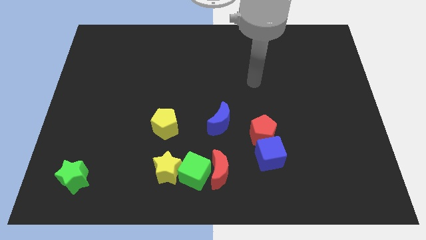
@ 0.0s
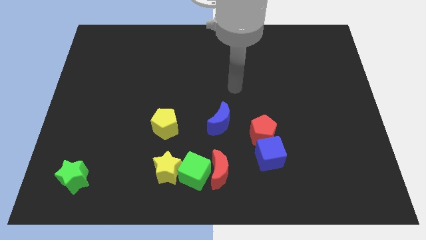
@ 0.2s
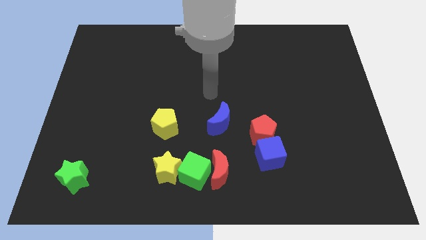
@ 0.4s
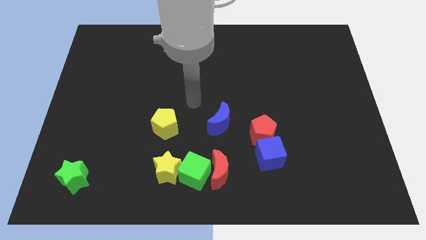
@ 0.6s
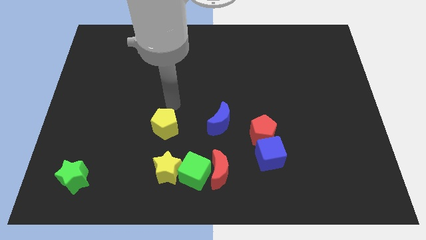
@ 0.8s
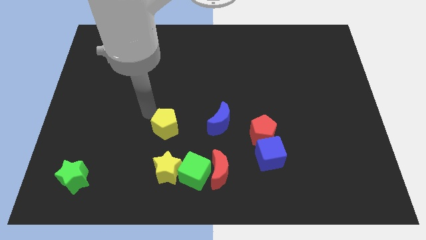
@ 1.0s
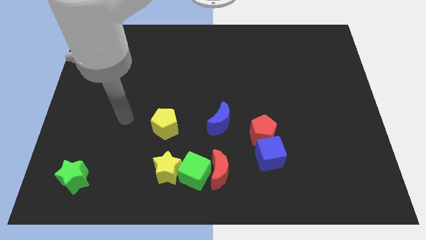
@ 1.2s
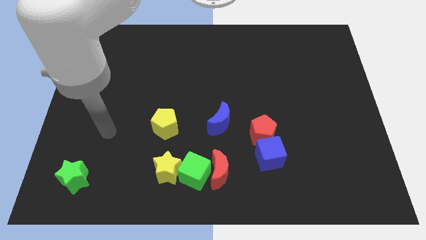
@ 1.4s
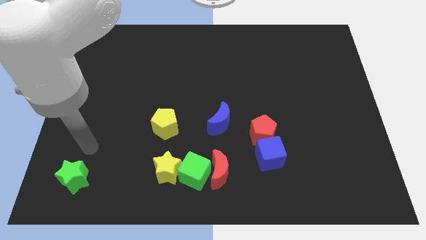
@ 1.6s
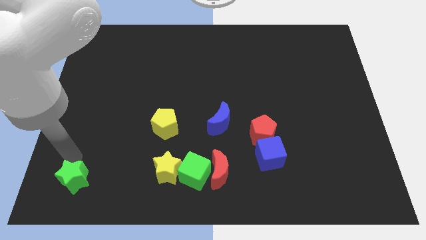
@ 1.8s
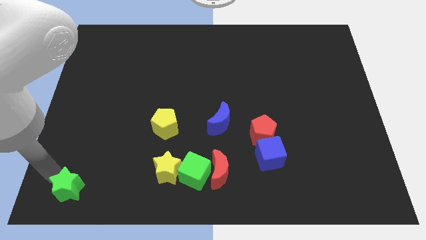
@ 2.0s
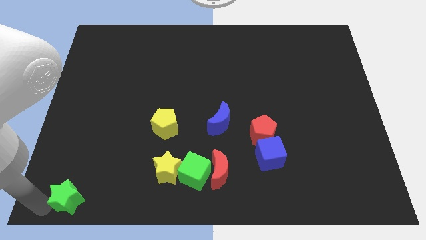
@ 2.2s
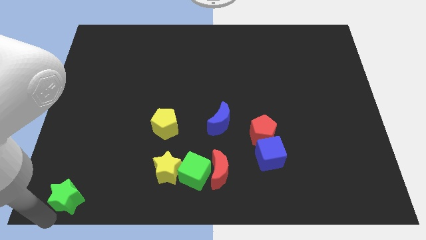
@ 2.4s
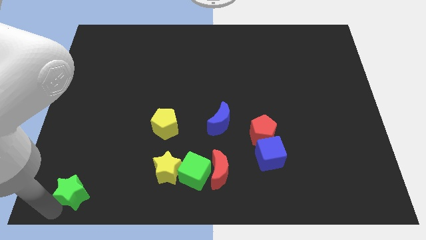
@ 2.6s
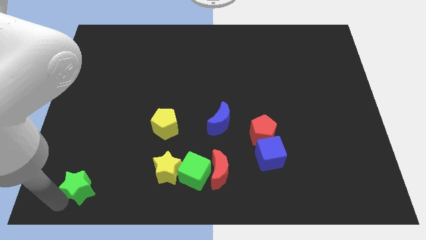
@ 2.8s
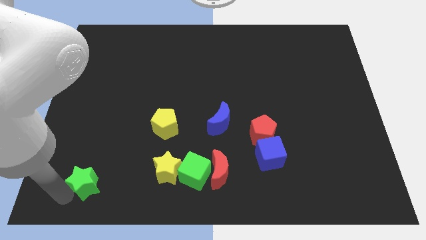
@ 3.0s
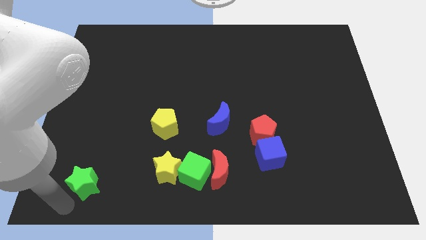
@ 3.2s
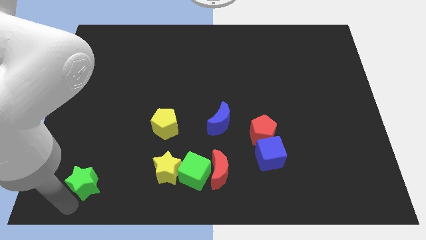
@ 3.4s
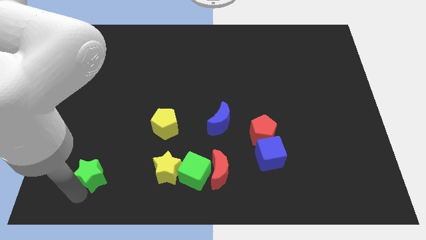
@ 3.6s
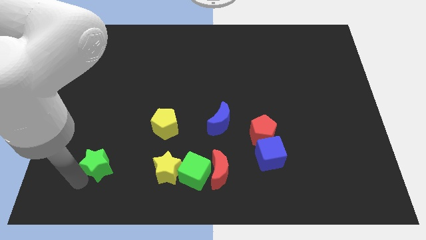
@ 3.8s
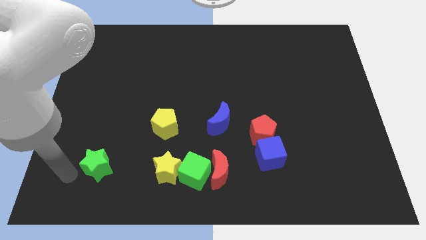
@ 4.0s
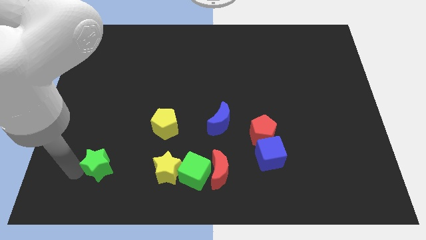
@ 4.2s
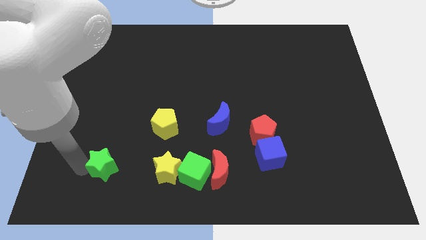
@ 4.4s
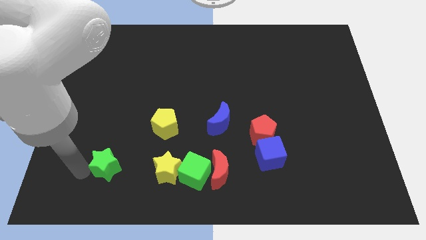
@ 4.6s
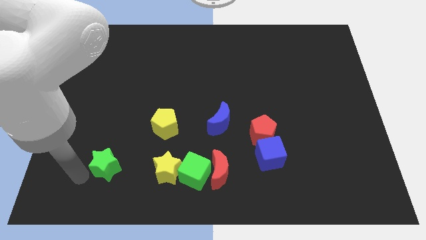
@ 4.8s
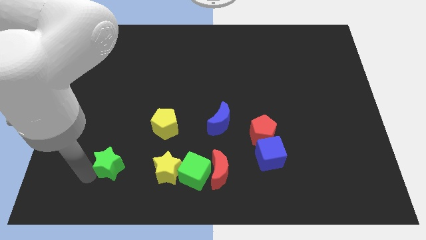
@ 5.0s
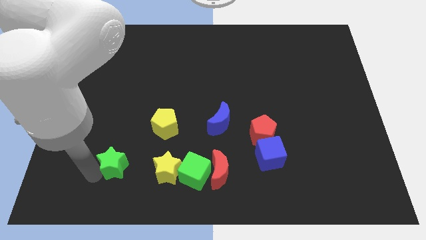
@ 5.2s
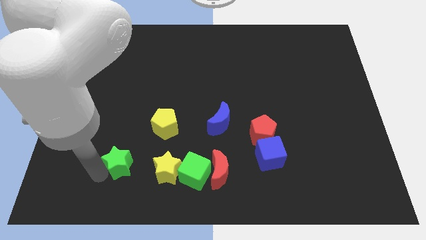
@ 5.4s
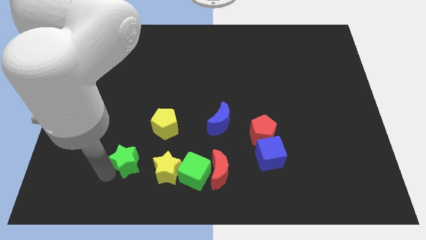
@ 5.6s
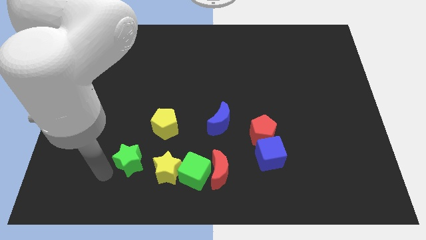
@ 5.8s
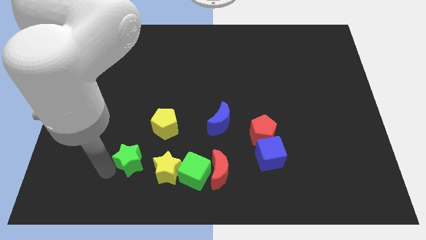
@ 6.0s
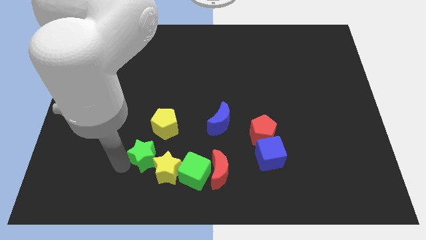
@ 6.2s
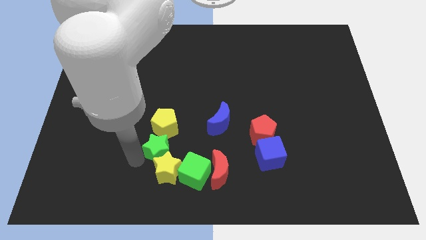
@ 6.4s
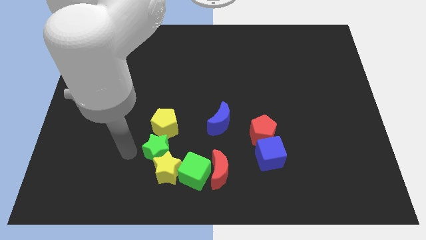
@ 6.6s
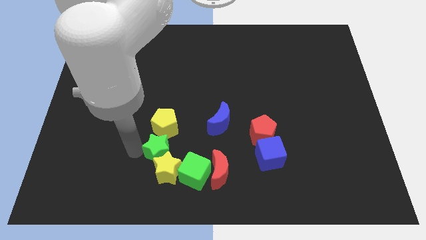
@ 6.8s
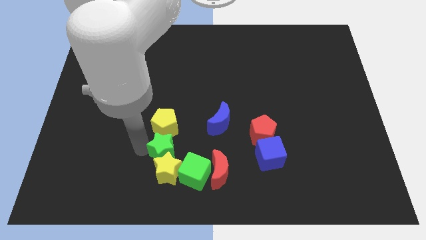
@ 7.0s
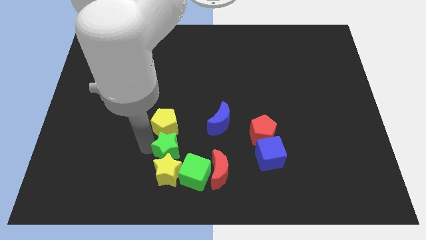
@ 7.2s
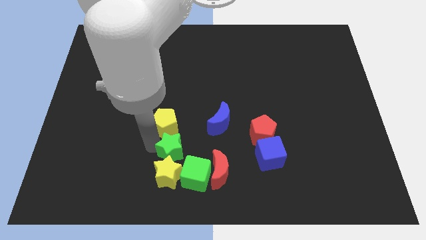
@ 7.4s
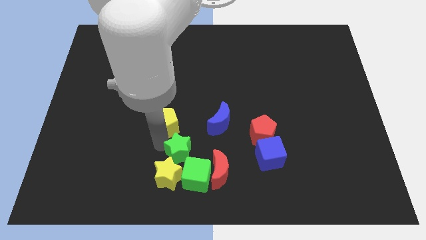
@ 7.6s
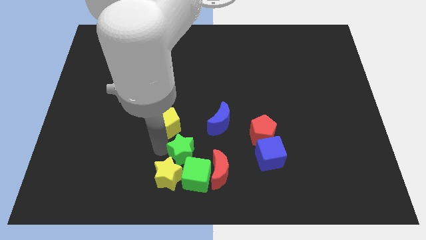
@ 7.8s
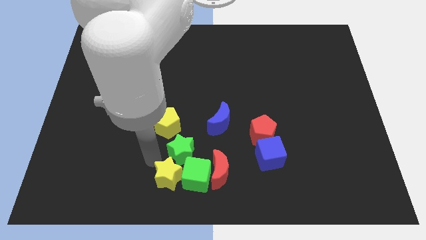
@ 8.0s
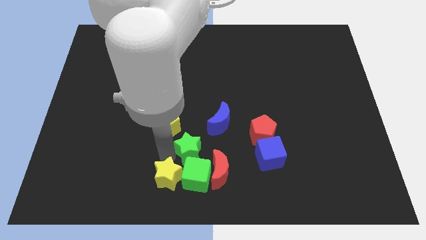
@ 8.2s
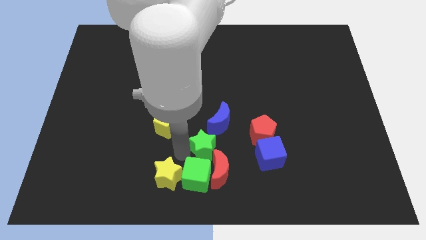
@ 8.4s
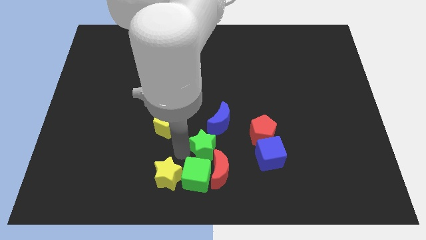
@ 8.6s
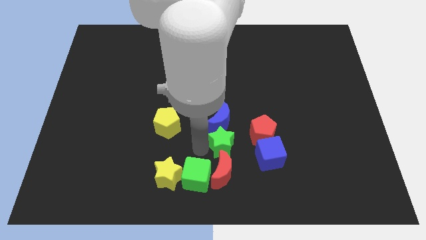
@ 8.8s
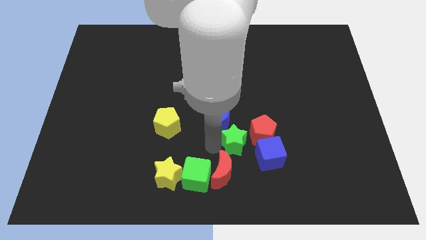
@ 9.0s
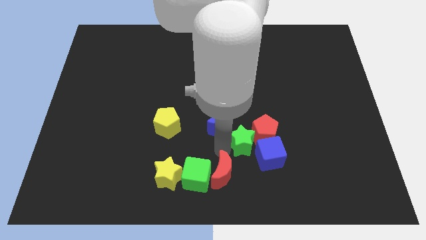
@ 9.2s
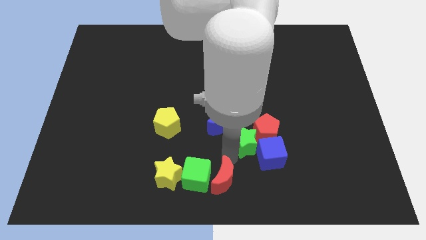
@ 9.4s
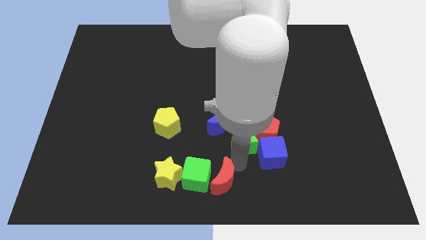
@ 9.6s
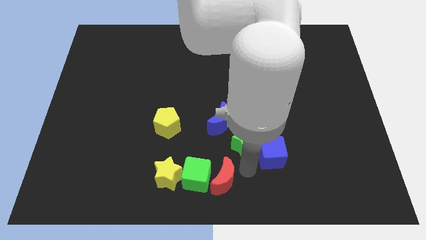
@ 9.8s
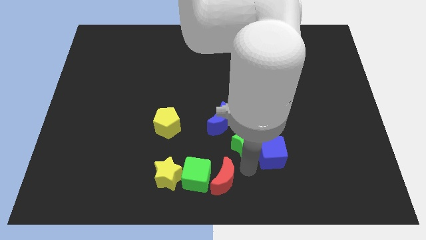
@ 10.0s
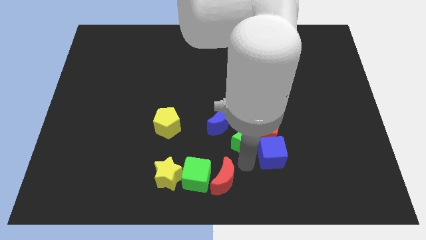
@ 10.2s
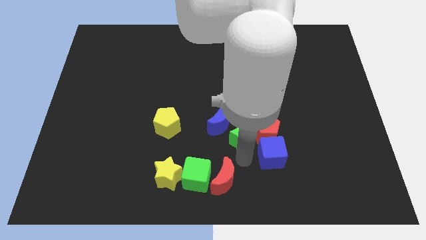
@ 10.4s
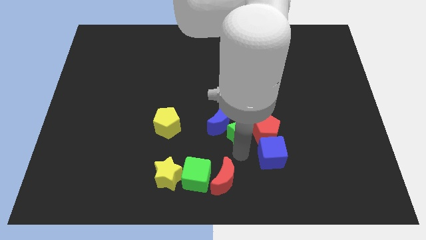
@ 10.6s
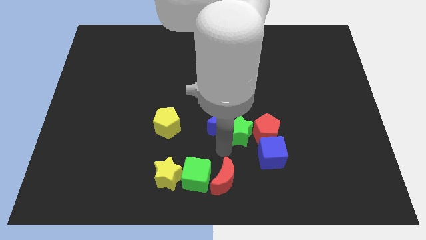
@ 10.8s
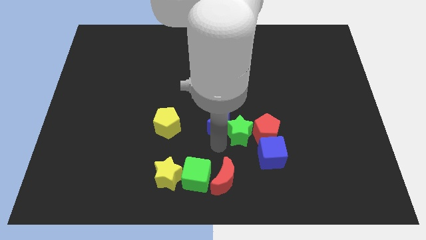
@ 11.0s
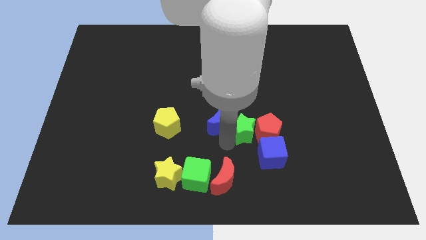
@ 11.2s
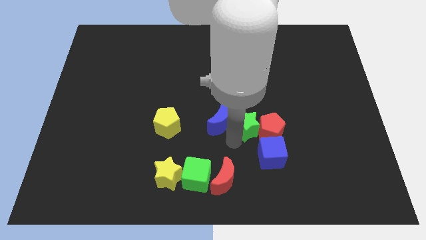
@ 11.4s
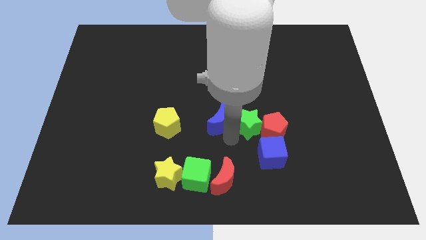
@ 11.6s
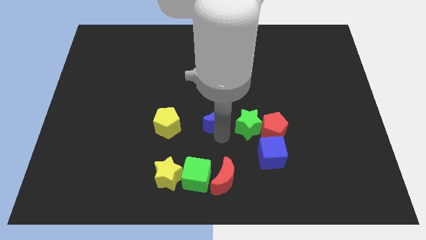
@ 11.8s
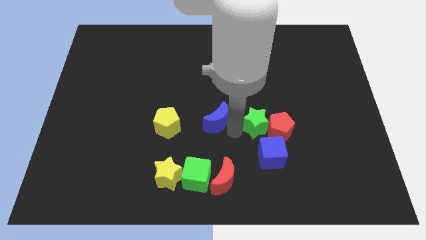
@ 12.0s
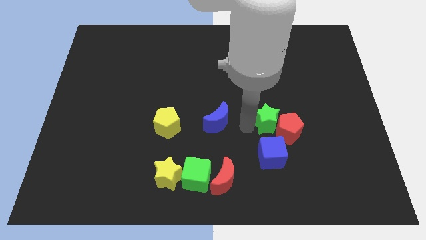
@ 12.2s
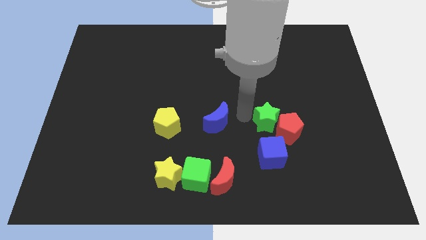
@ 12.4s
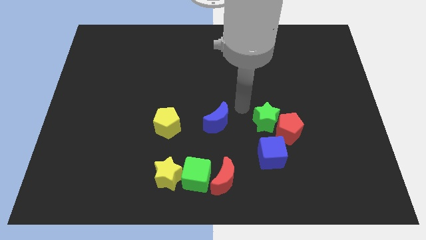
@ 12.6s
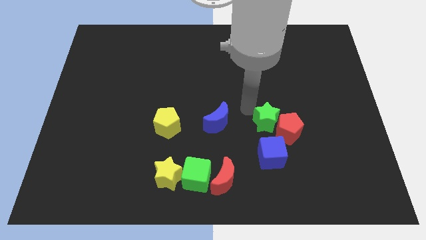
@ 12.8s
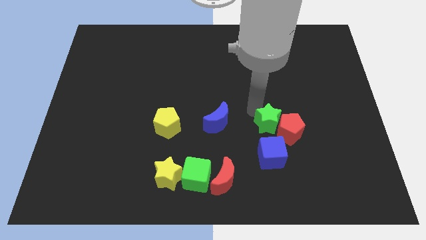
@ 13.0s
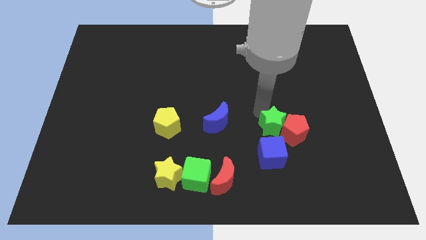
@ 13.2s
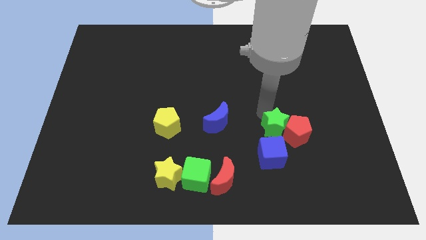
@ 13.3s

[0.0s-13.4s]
move the green star diagonally up and to the right of the blue cube
